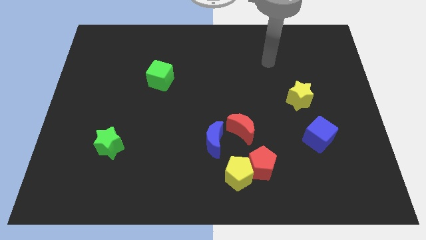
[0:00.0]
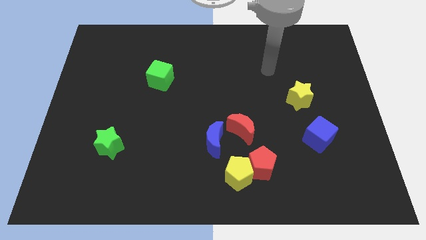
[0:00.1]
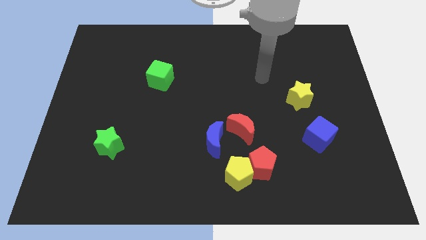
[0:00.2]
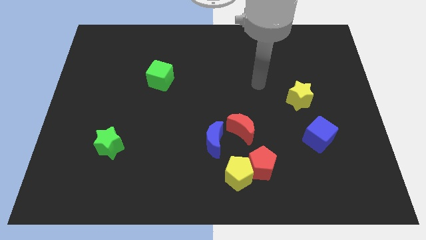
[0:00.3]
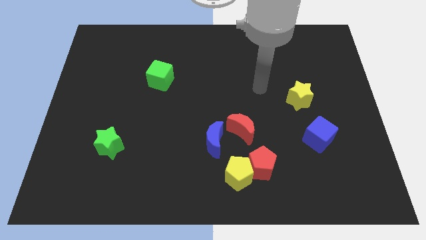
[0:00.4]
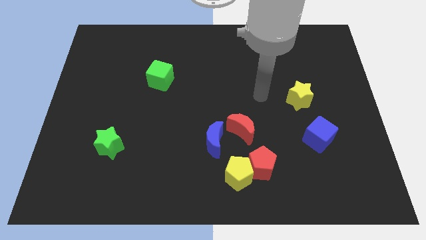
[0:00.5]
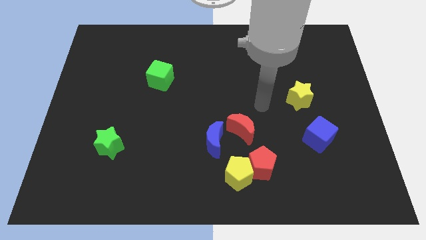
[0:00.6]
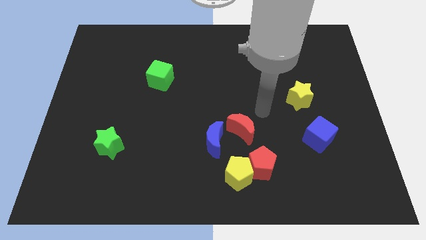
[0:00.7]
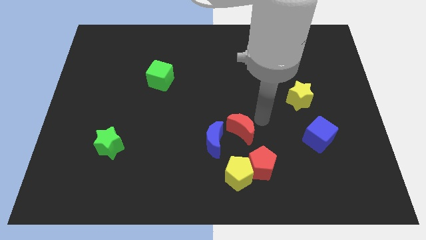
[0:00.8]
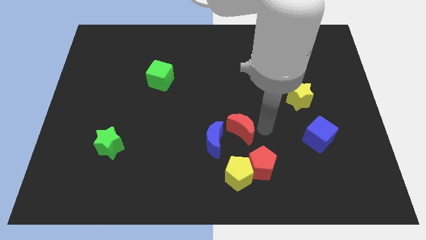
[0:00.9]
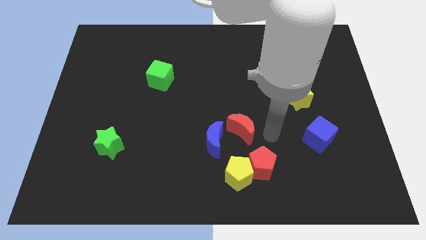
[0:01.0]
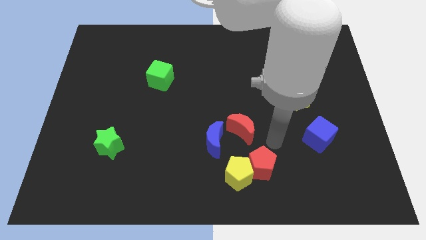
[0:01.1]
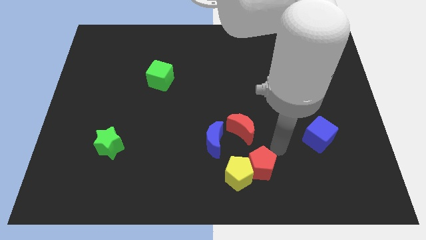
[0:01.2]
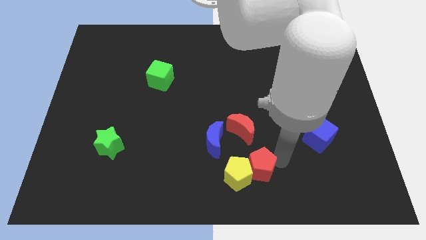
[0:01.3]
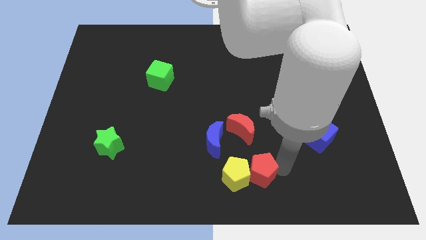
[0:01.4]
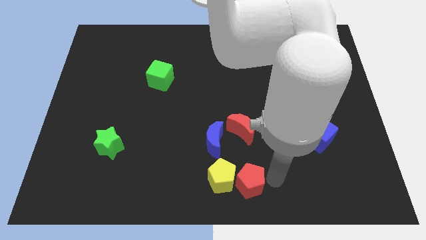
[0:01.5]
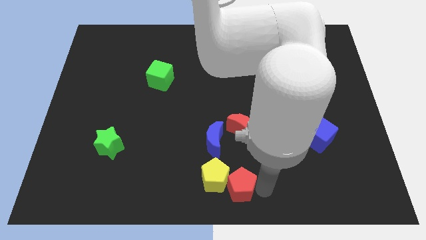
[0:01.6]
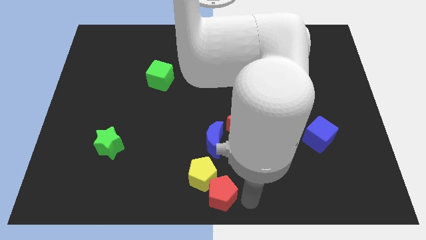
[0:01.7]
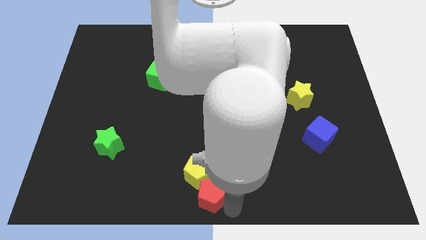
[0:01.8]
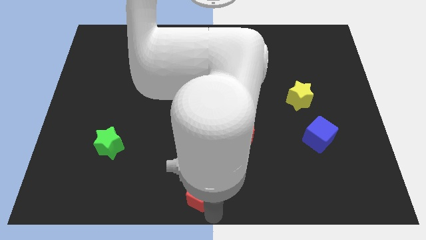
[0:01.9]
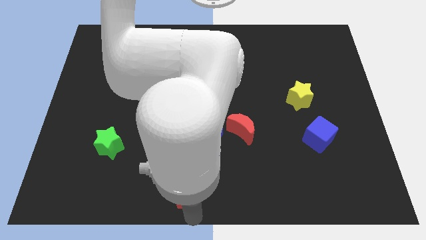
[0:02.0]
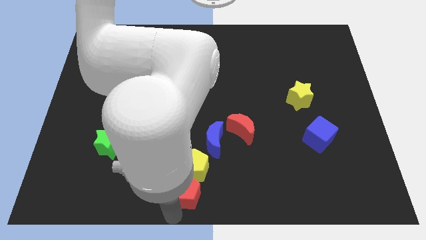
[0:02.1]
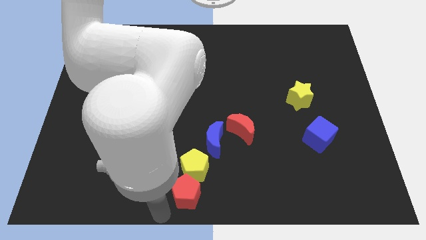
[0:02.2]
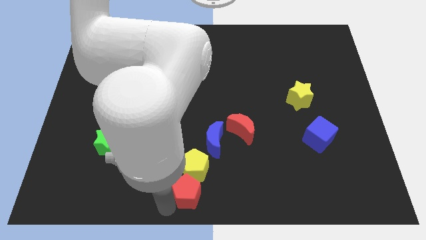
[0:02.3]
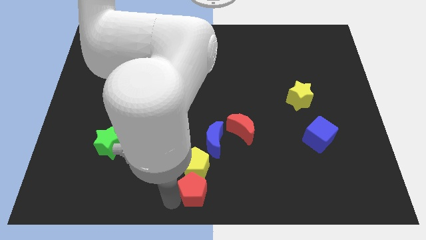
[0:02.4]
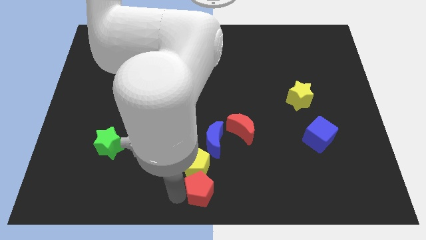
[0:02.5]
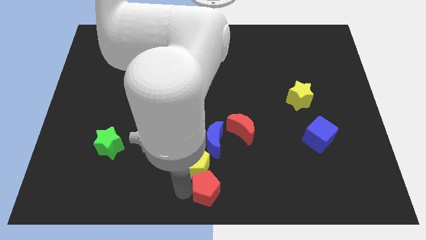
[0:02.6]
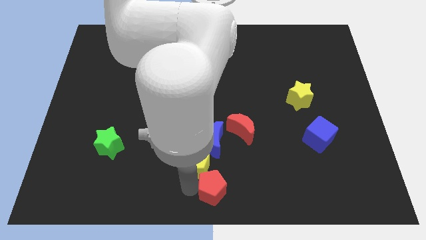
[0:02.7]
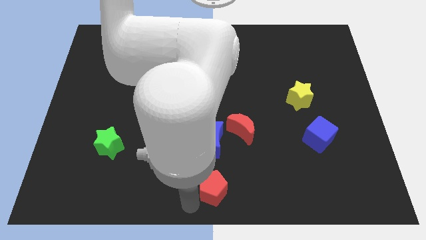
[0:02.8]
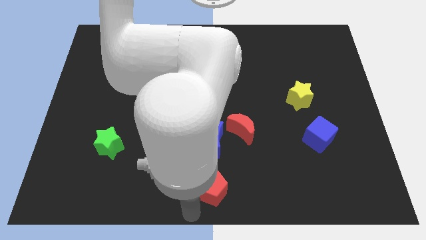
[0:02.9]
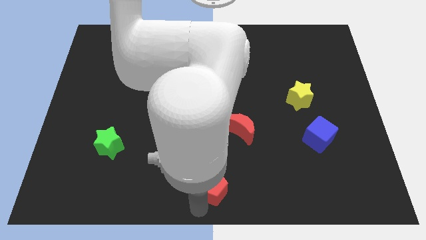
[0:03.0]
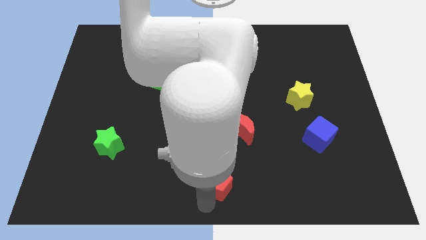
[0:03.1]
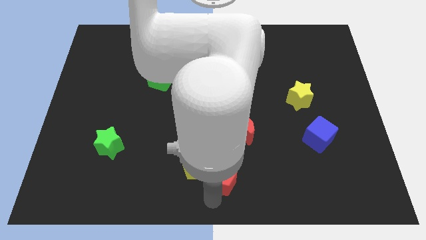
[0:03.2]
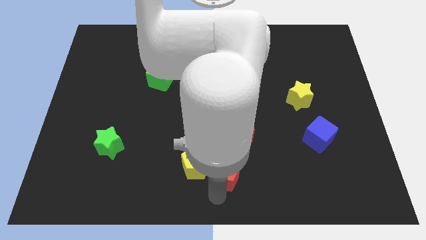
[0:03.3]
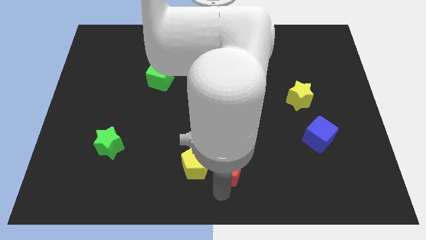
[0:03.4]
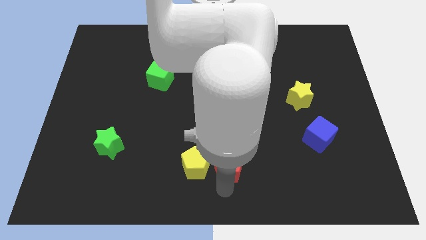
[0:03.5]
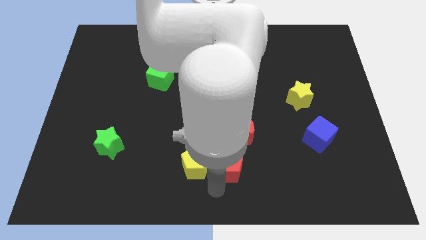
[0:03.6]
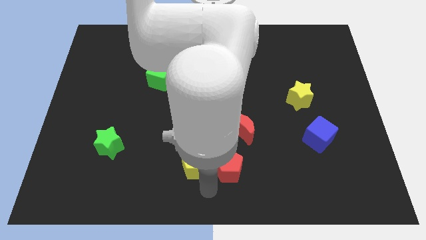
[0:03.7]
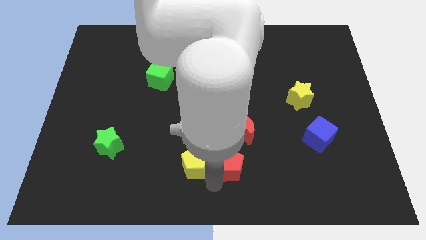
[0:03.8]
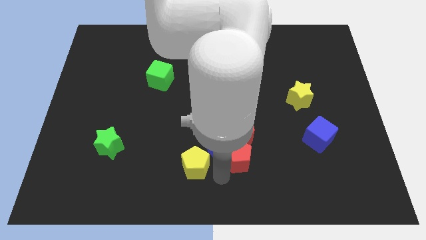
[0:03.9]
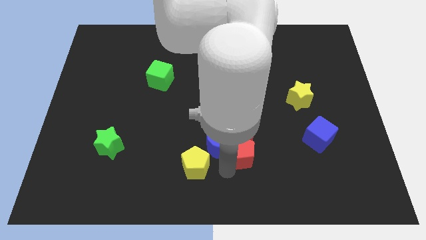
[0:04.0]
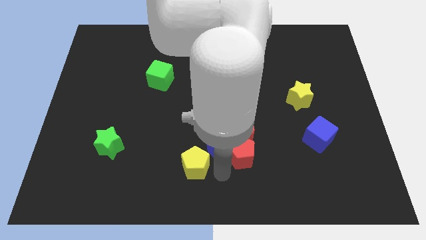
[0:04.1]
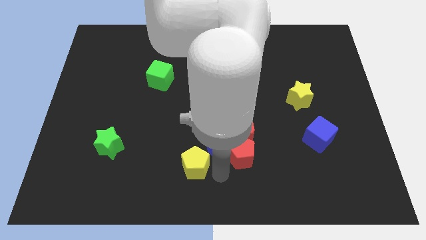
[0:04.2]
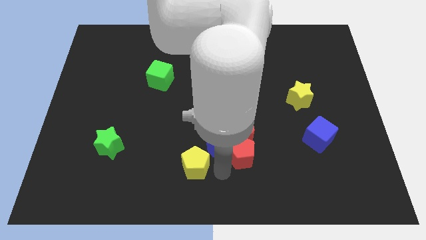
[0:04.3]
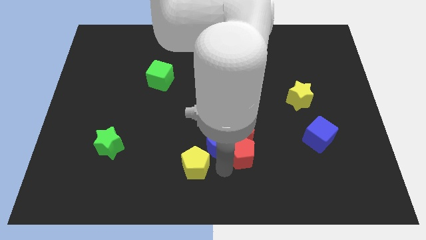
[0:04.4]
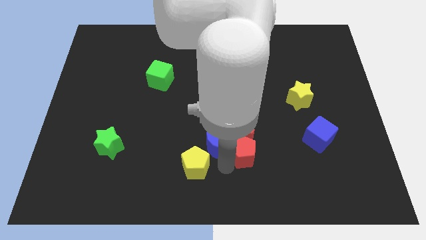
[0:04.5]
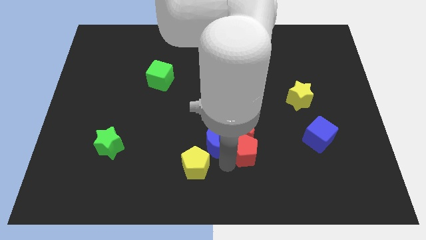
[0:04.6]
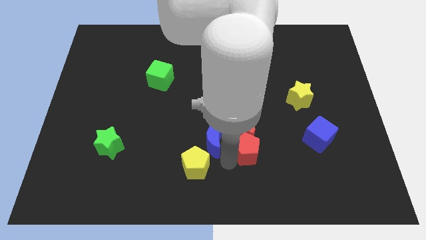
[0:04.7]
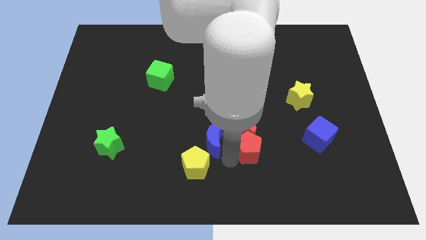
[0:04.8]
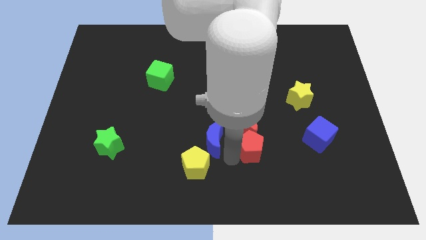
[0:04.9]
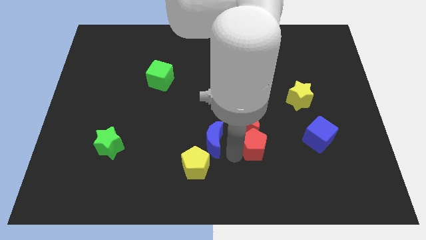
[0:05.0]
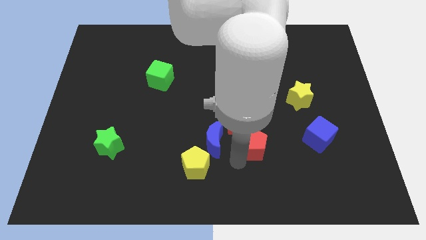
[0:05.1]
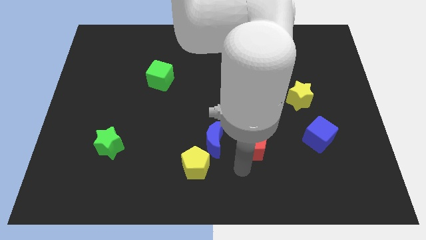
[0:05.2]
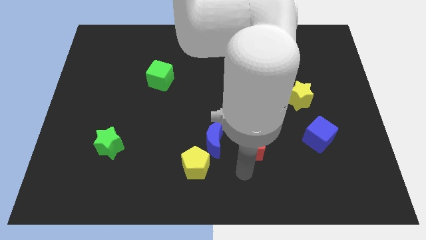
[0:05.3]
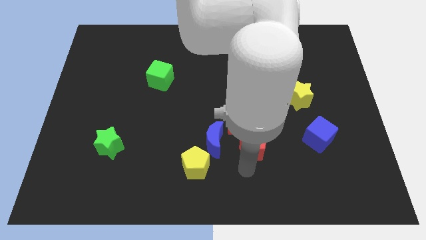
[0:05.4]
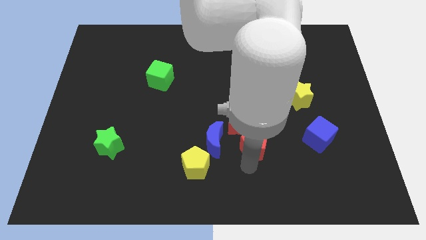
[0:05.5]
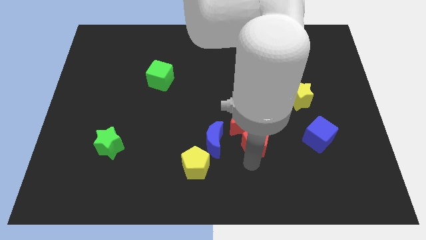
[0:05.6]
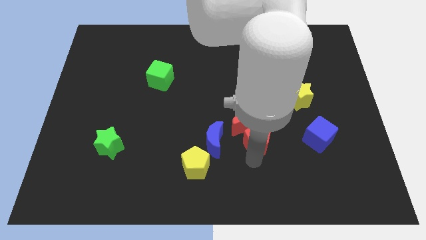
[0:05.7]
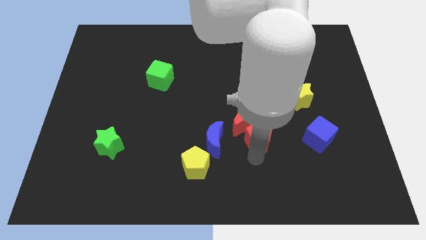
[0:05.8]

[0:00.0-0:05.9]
slide the red pentagon up slightly

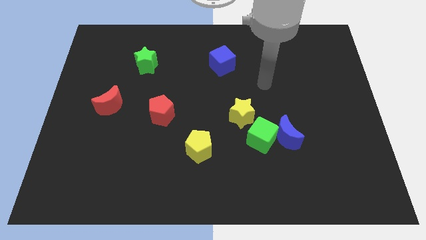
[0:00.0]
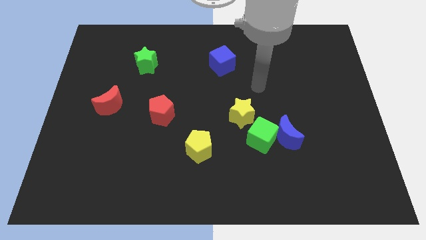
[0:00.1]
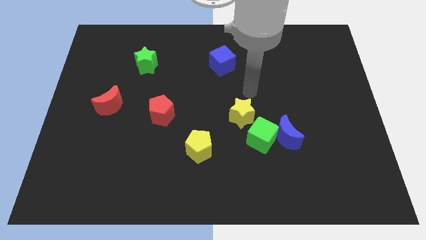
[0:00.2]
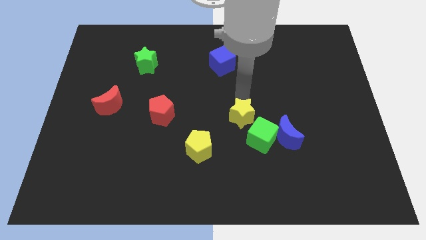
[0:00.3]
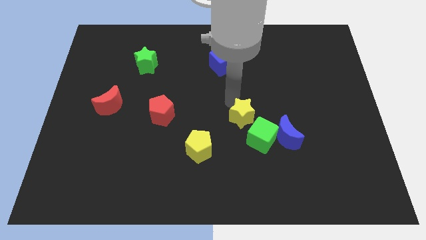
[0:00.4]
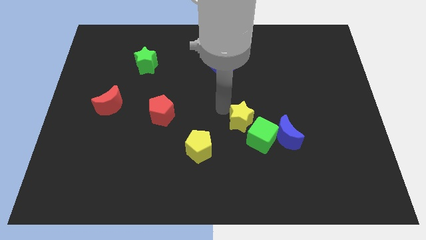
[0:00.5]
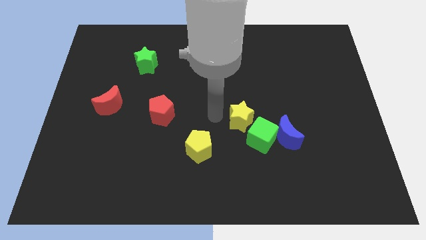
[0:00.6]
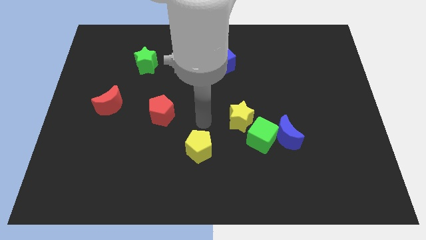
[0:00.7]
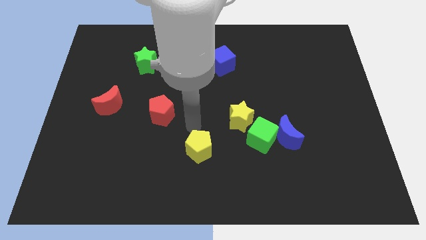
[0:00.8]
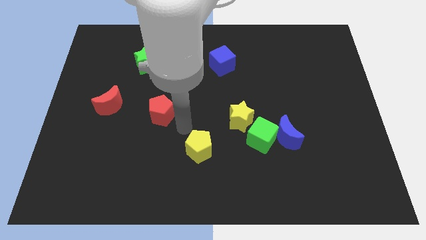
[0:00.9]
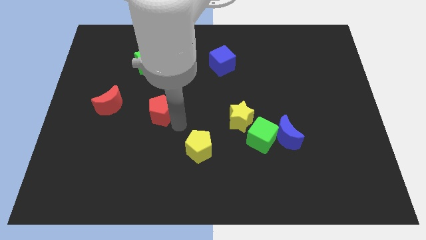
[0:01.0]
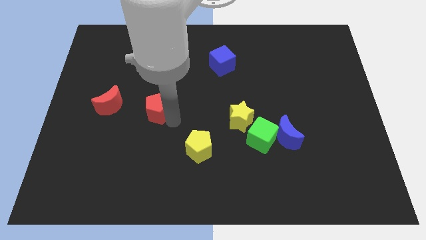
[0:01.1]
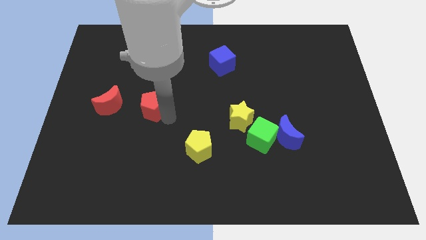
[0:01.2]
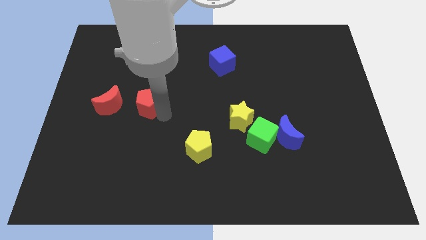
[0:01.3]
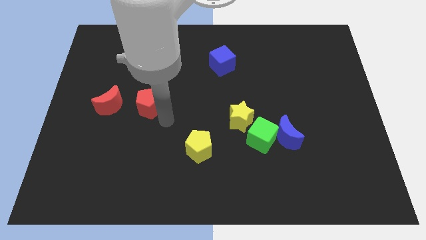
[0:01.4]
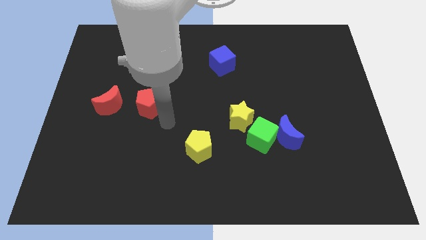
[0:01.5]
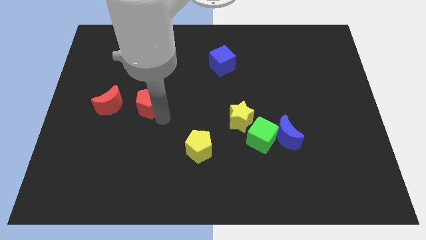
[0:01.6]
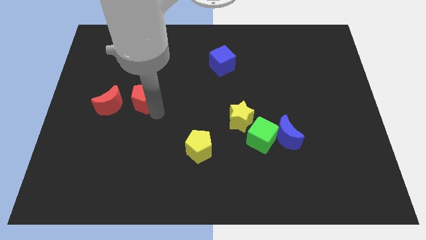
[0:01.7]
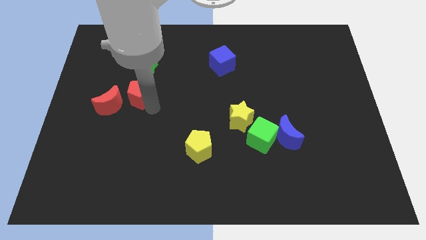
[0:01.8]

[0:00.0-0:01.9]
slightly move the red pentagon up and left

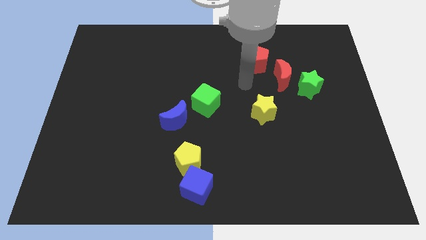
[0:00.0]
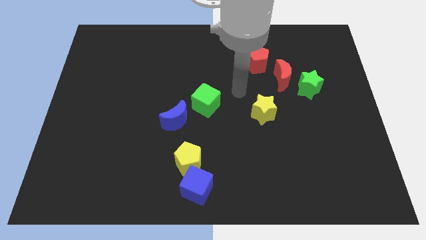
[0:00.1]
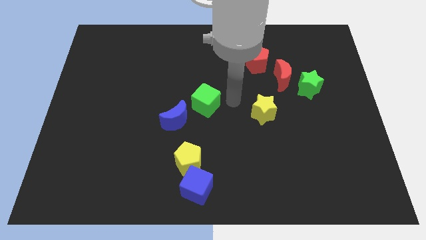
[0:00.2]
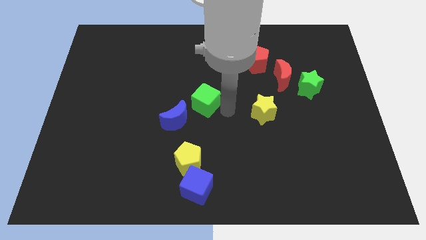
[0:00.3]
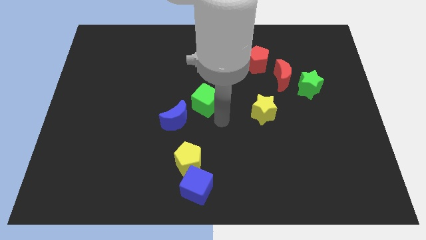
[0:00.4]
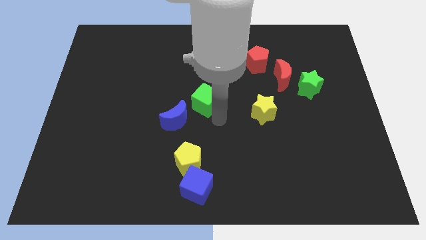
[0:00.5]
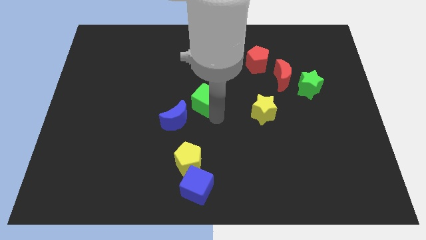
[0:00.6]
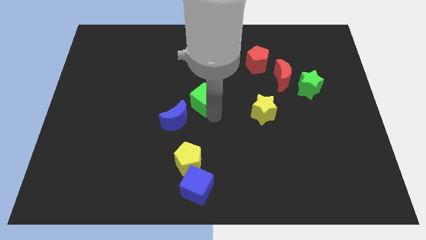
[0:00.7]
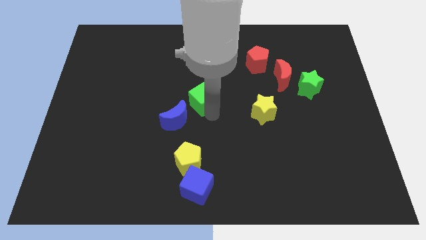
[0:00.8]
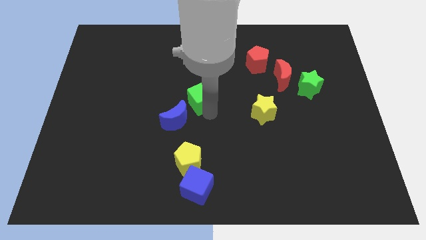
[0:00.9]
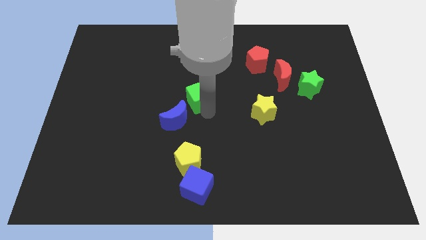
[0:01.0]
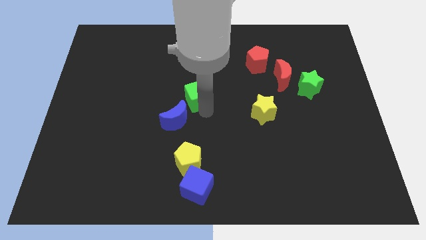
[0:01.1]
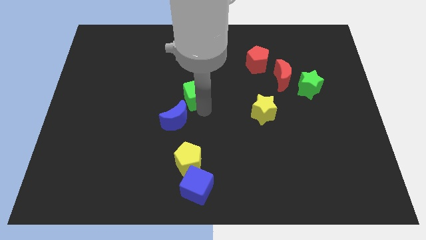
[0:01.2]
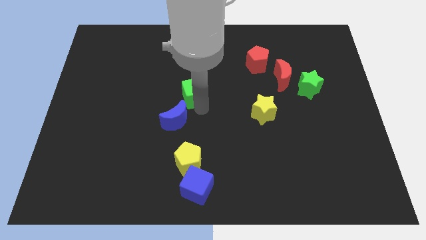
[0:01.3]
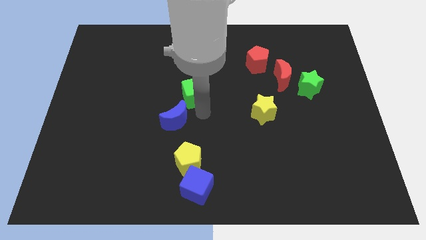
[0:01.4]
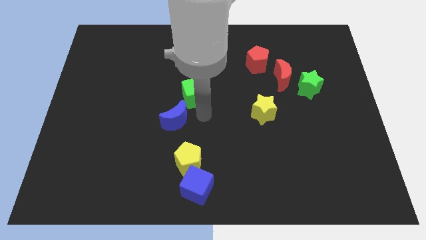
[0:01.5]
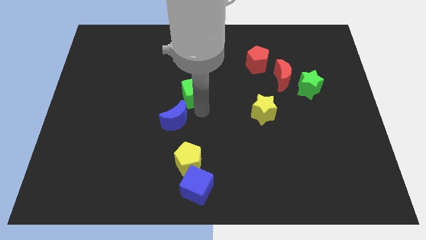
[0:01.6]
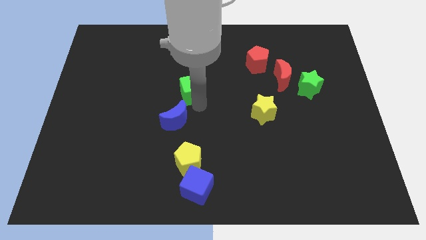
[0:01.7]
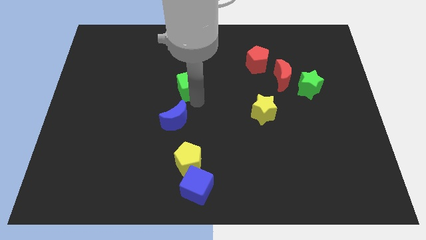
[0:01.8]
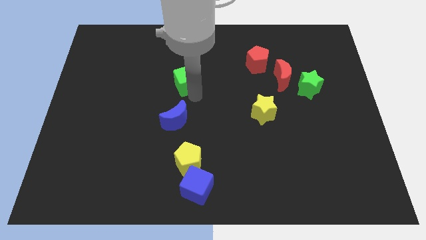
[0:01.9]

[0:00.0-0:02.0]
slide the green cube somewhat upwards and then to the left
